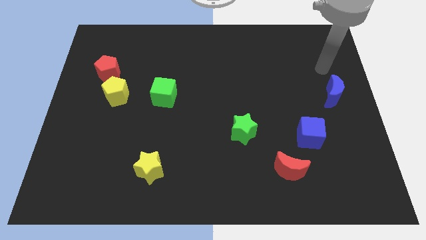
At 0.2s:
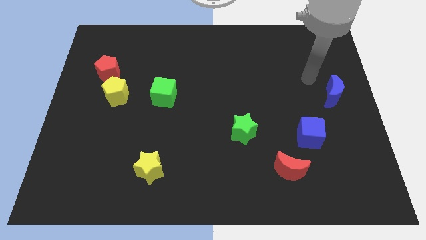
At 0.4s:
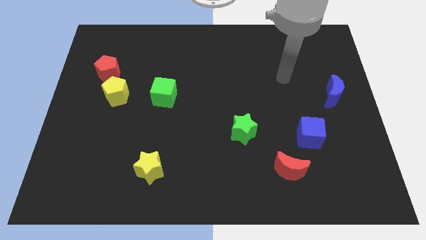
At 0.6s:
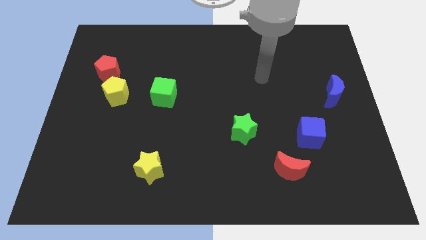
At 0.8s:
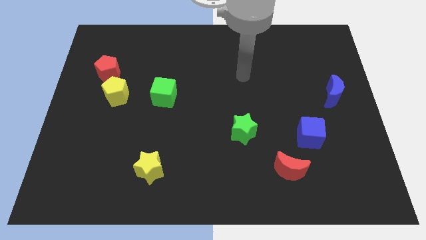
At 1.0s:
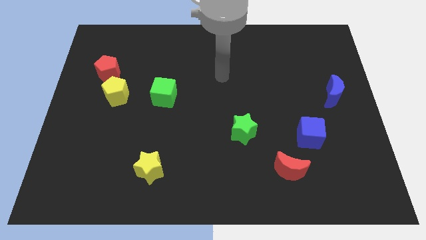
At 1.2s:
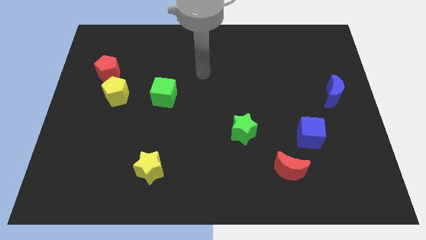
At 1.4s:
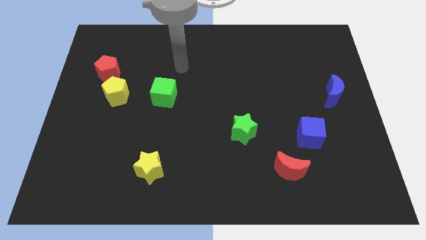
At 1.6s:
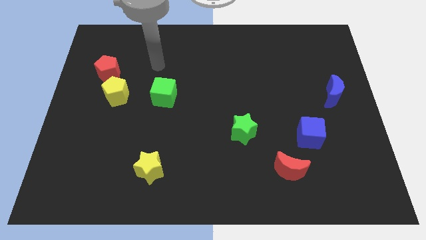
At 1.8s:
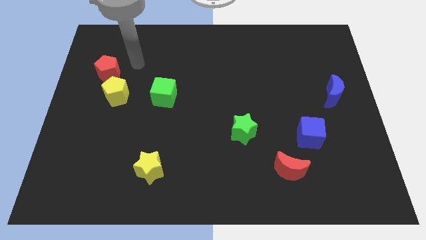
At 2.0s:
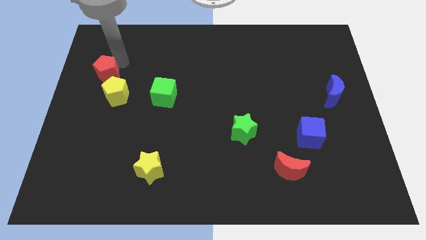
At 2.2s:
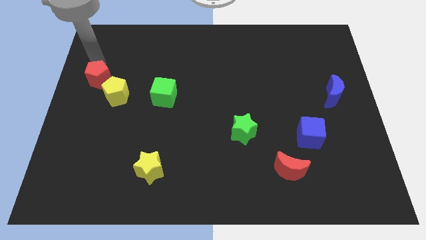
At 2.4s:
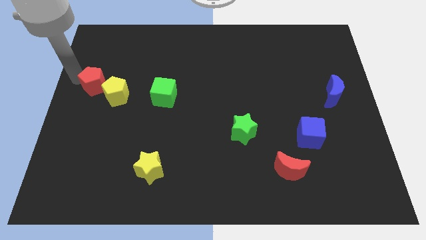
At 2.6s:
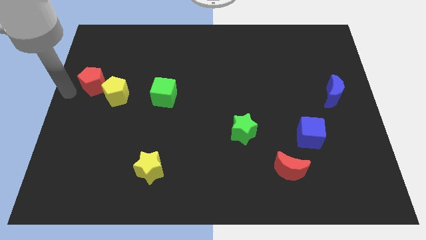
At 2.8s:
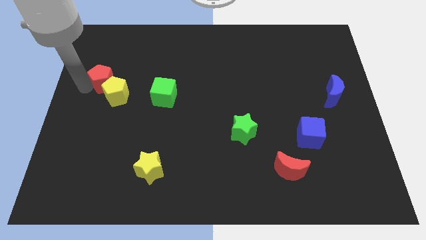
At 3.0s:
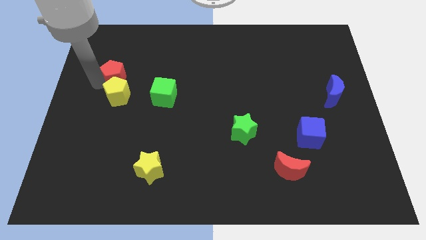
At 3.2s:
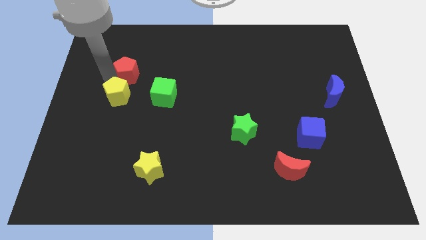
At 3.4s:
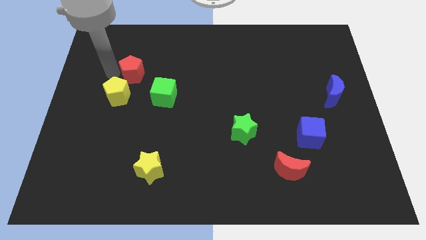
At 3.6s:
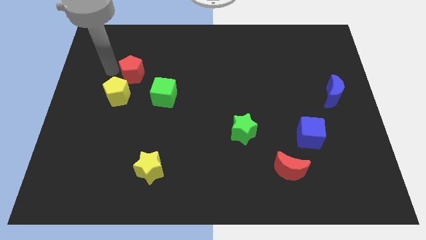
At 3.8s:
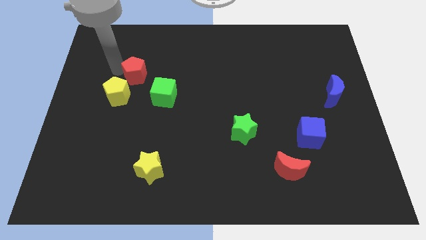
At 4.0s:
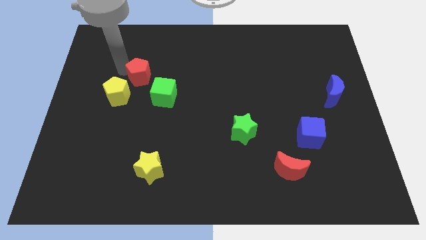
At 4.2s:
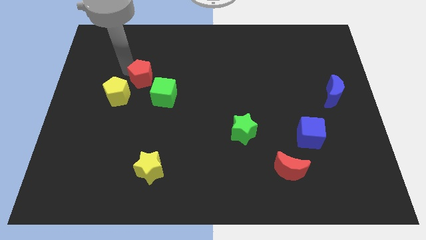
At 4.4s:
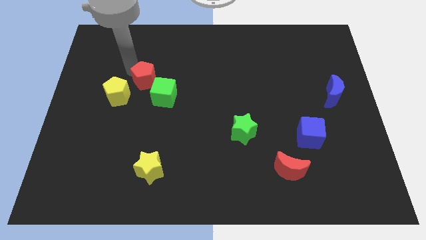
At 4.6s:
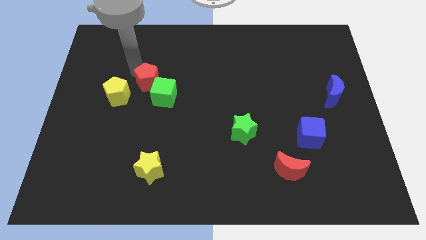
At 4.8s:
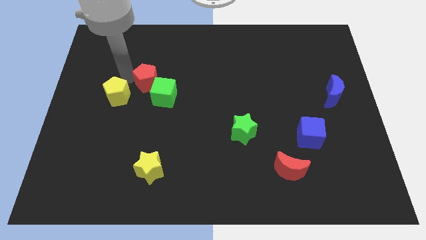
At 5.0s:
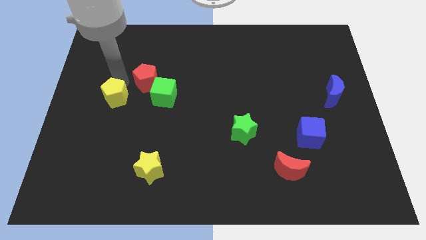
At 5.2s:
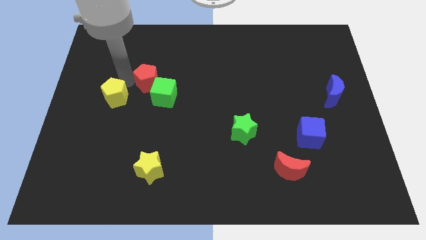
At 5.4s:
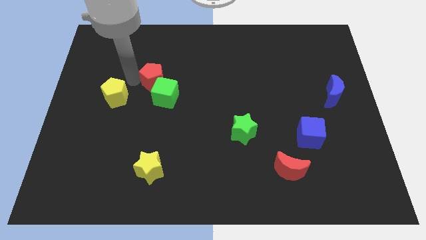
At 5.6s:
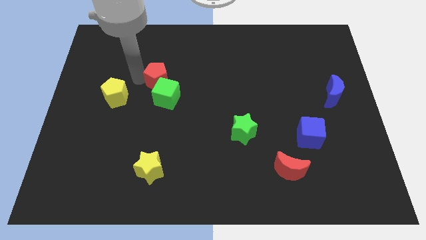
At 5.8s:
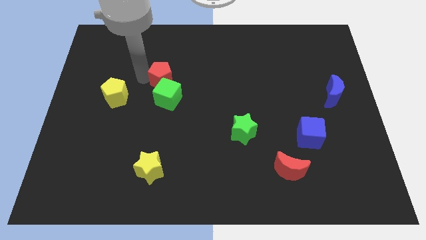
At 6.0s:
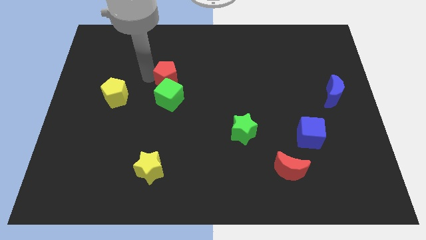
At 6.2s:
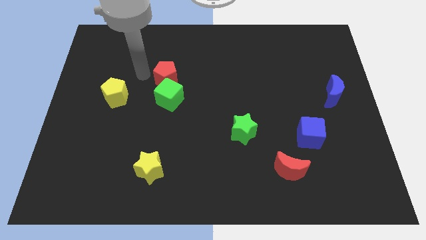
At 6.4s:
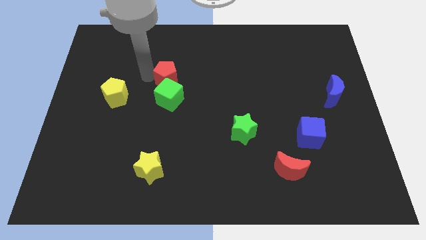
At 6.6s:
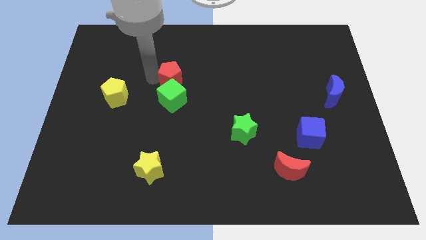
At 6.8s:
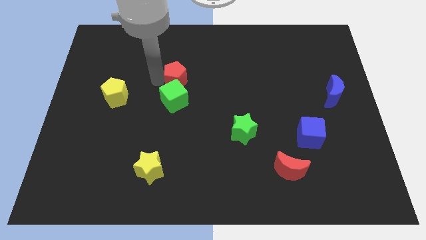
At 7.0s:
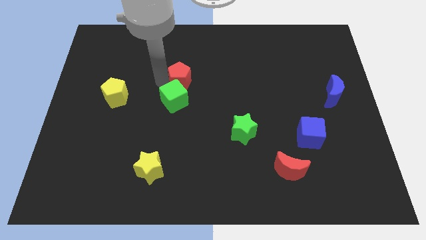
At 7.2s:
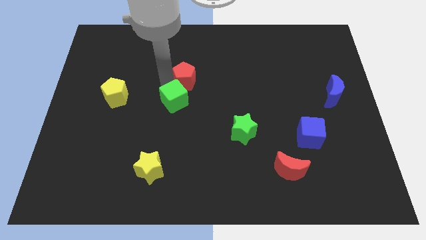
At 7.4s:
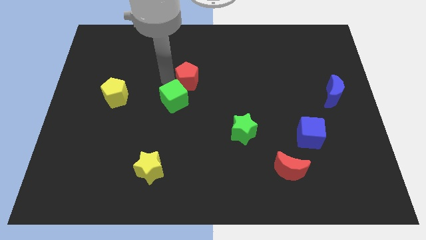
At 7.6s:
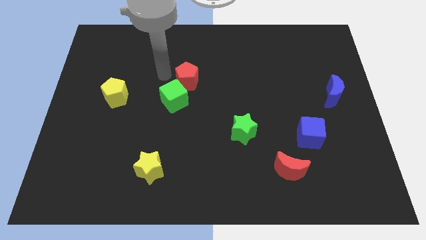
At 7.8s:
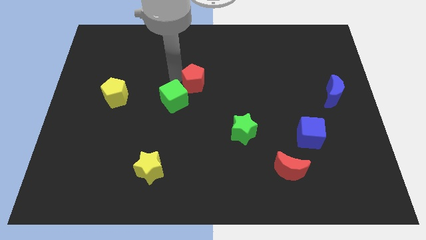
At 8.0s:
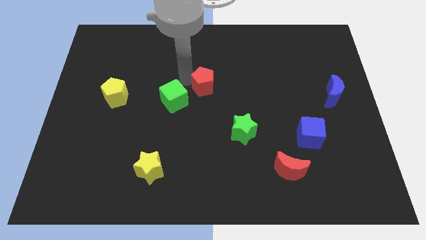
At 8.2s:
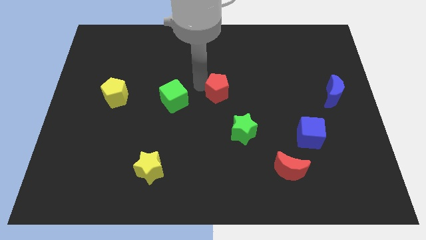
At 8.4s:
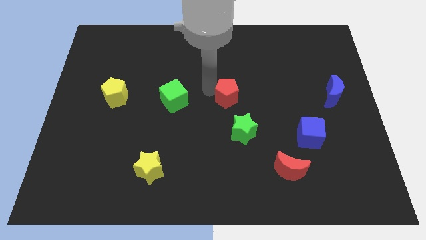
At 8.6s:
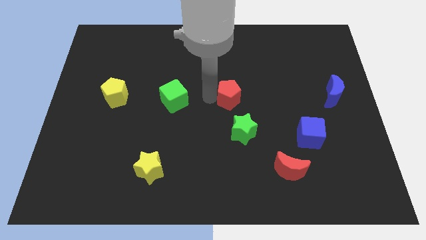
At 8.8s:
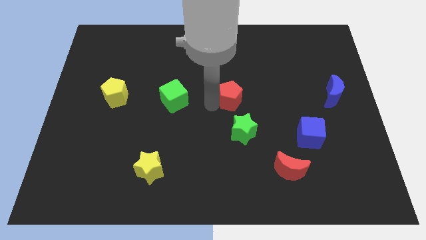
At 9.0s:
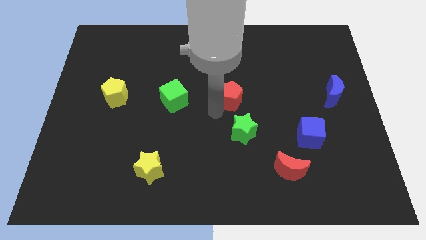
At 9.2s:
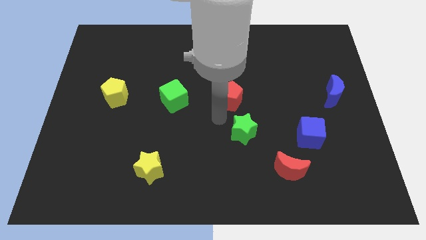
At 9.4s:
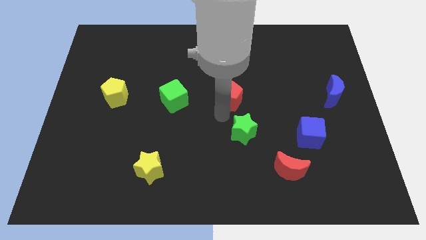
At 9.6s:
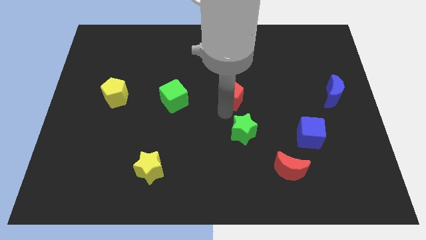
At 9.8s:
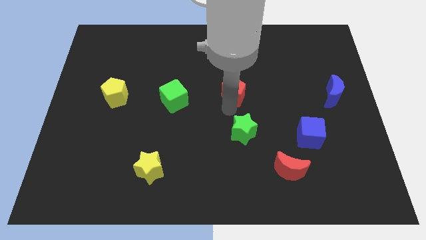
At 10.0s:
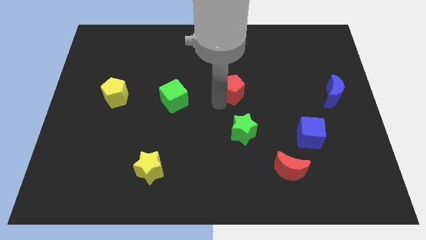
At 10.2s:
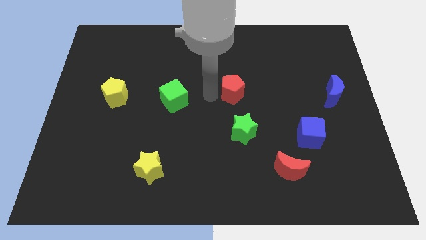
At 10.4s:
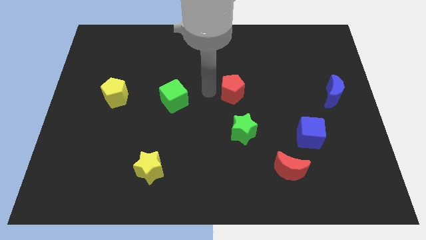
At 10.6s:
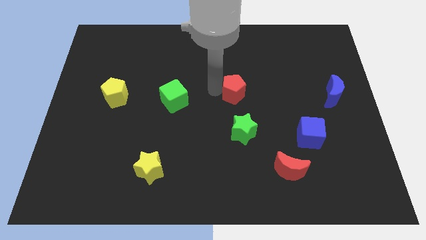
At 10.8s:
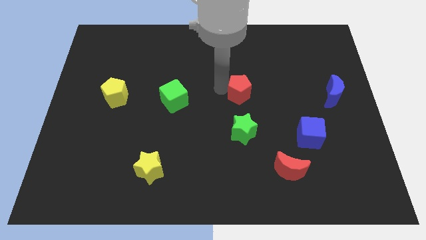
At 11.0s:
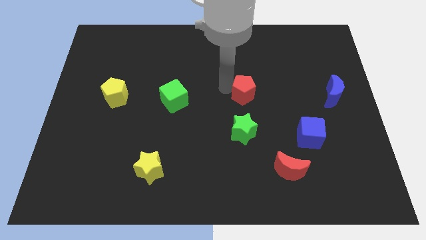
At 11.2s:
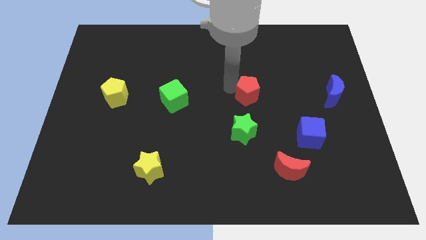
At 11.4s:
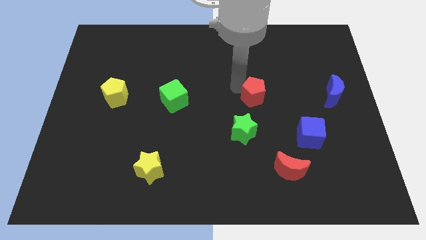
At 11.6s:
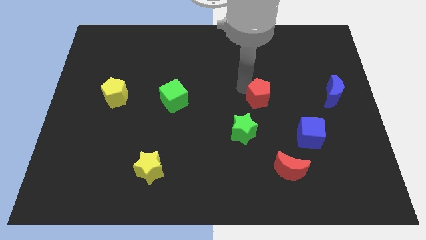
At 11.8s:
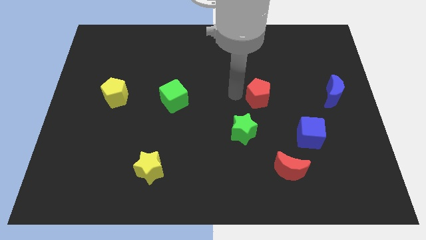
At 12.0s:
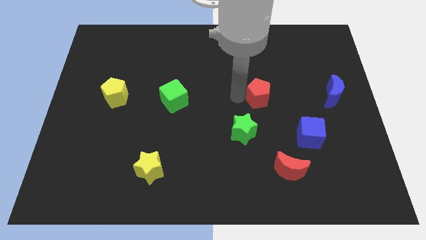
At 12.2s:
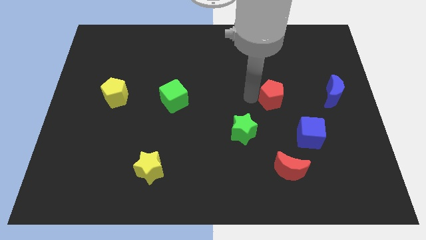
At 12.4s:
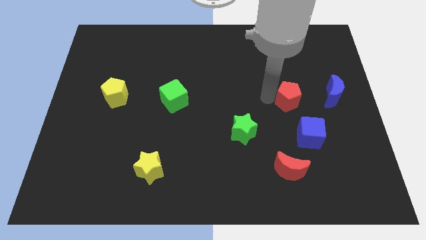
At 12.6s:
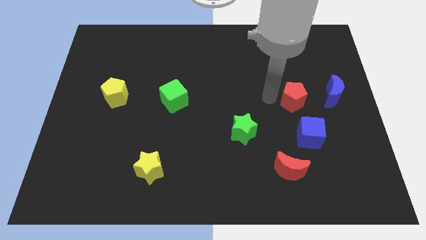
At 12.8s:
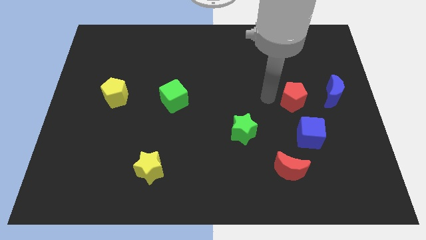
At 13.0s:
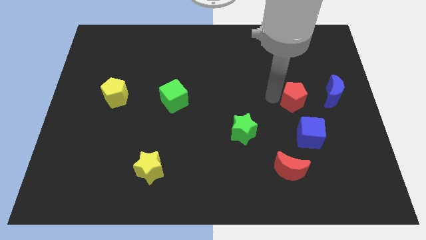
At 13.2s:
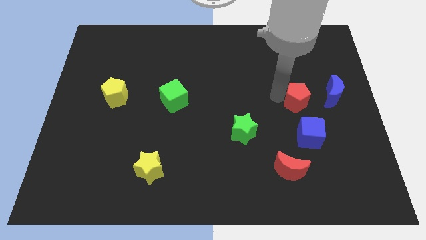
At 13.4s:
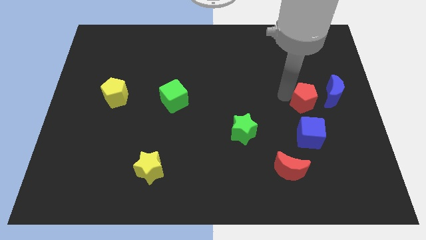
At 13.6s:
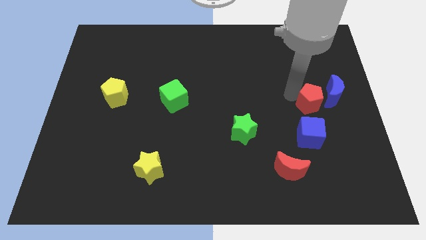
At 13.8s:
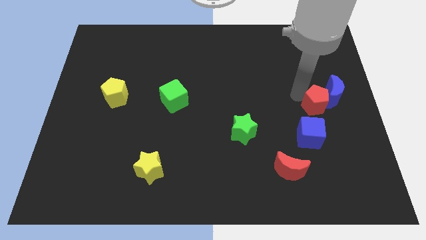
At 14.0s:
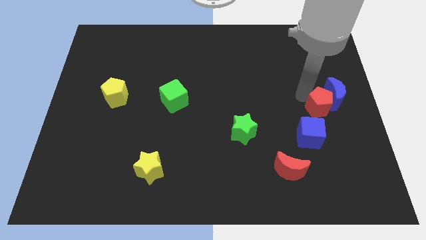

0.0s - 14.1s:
move the red pentagon to the center right
